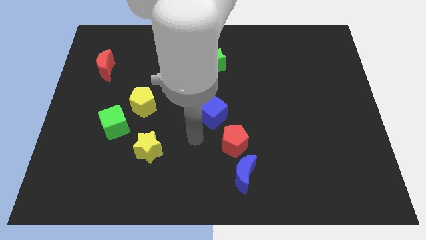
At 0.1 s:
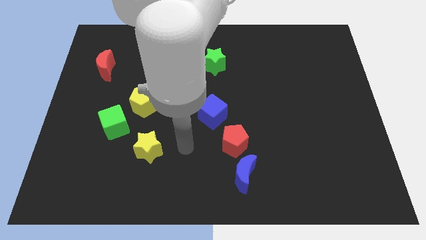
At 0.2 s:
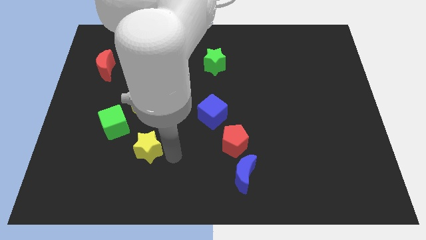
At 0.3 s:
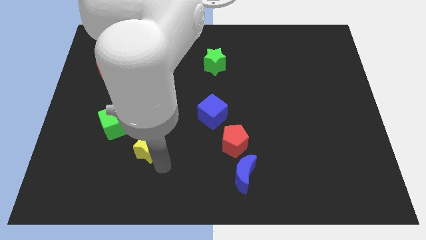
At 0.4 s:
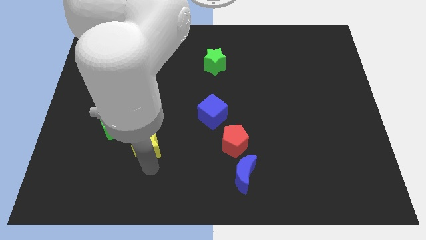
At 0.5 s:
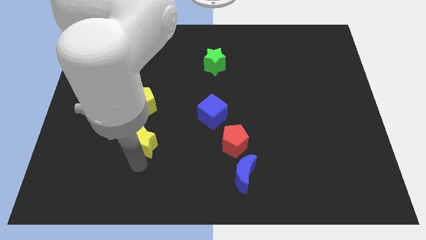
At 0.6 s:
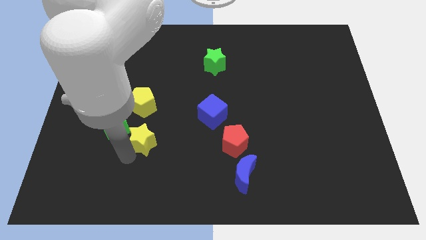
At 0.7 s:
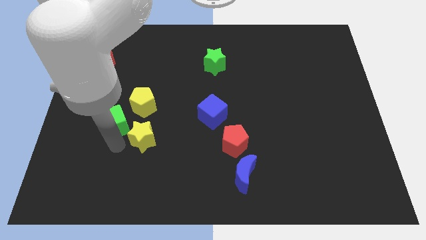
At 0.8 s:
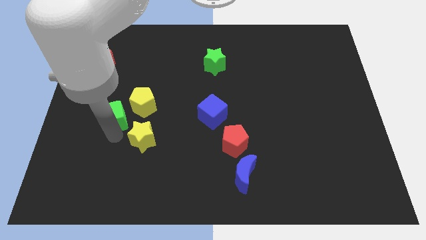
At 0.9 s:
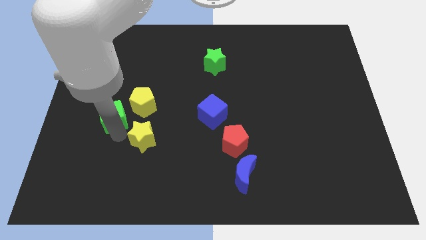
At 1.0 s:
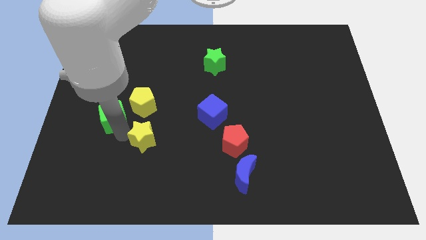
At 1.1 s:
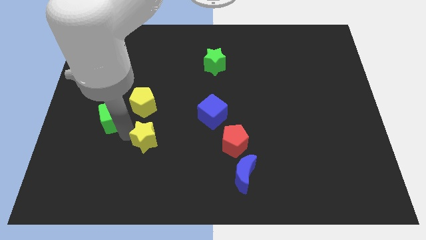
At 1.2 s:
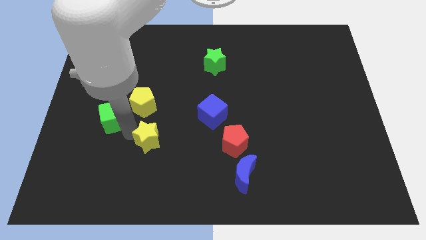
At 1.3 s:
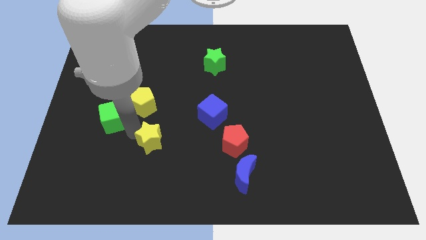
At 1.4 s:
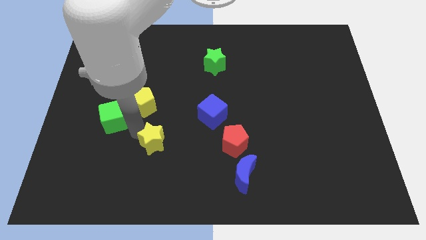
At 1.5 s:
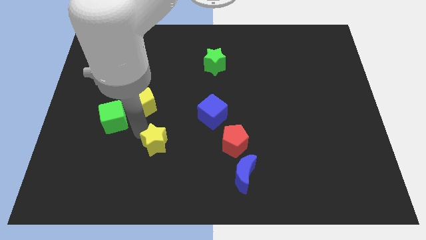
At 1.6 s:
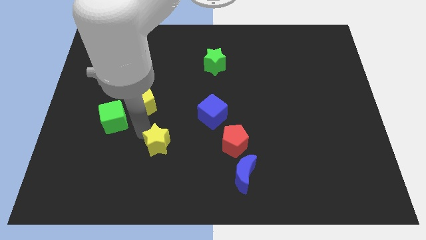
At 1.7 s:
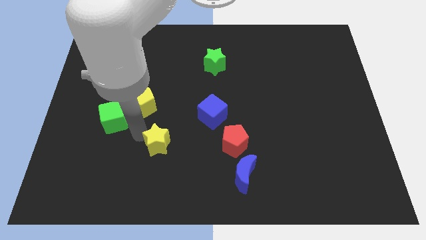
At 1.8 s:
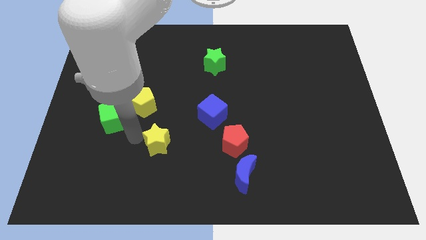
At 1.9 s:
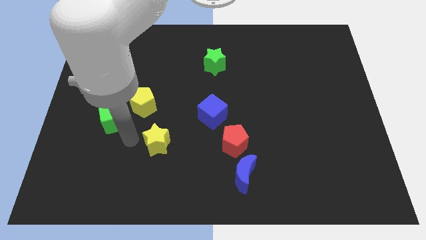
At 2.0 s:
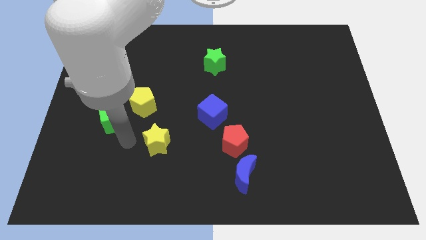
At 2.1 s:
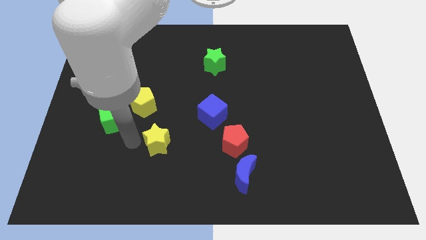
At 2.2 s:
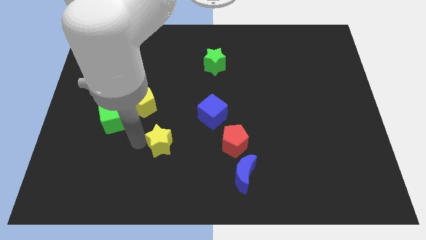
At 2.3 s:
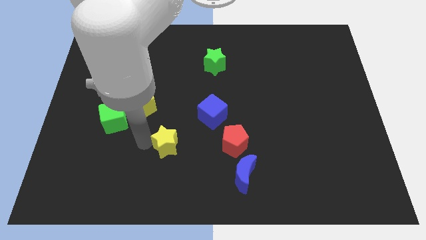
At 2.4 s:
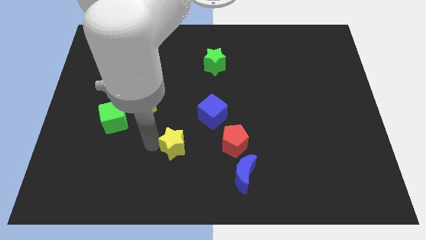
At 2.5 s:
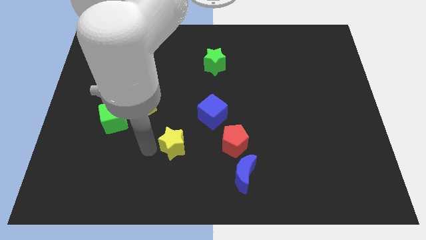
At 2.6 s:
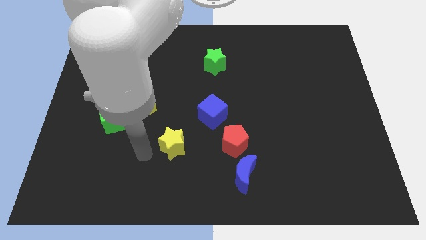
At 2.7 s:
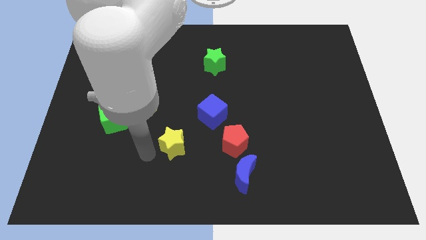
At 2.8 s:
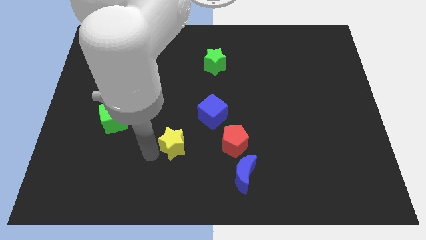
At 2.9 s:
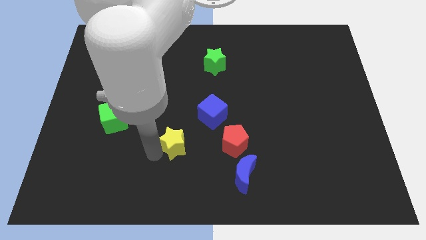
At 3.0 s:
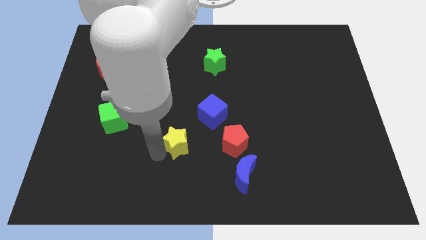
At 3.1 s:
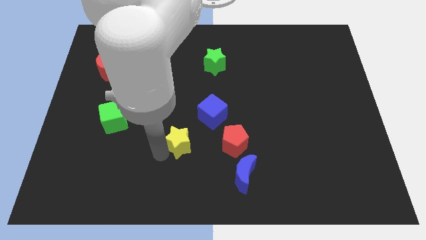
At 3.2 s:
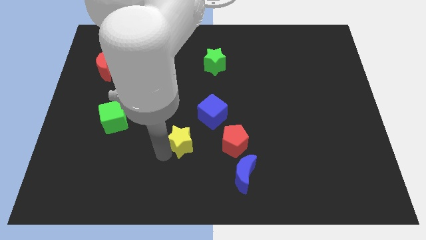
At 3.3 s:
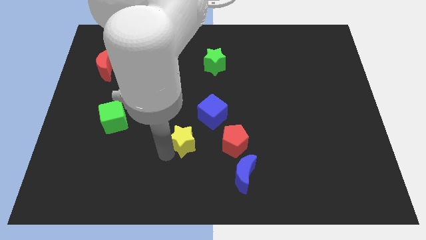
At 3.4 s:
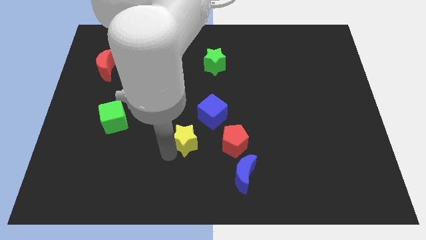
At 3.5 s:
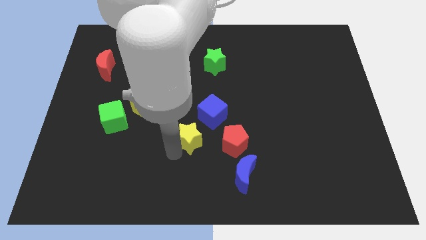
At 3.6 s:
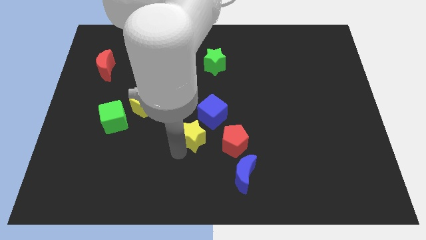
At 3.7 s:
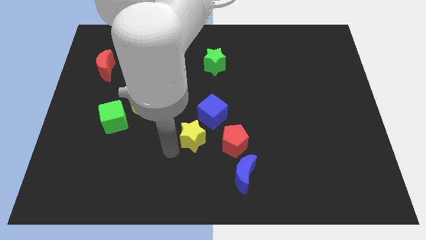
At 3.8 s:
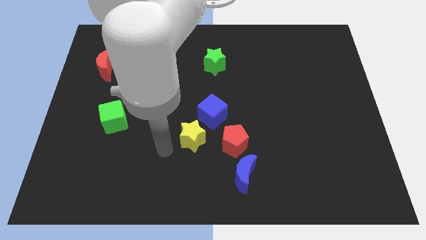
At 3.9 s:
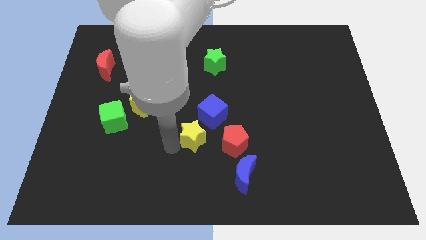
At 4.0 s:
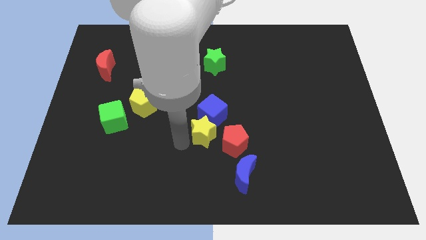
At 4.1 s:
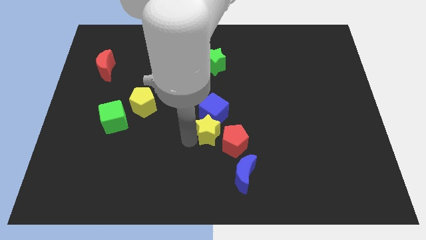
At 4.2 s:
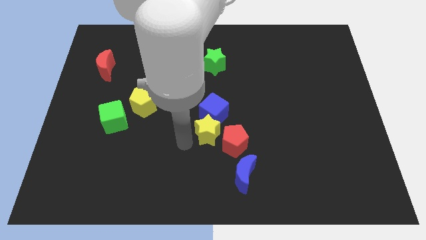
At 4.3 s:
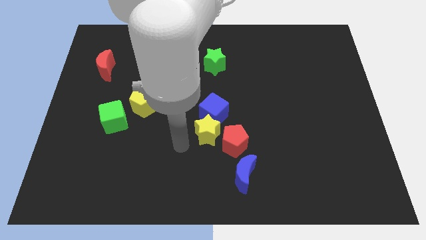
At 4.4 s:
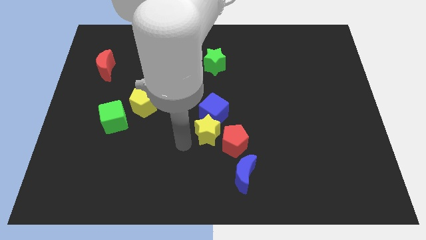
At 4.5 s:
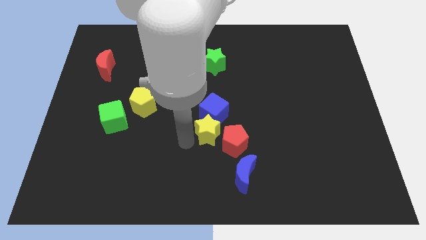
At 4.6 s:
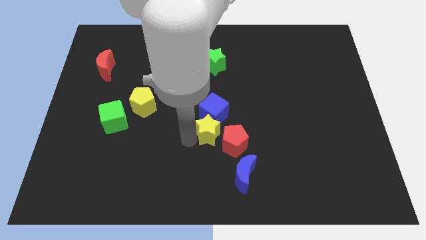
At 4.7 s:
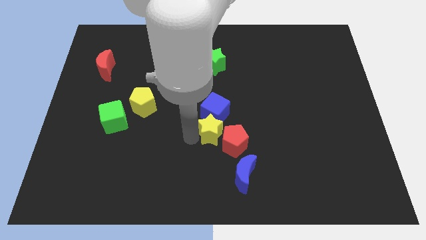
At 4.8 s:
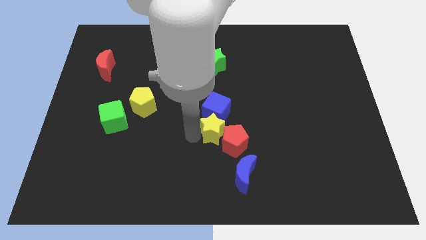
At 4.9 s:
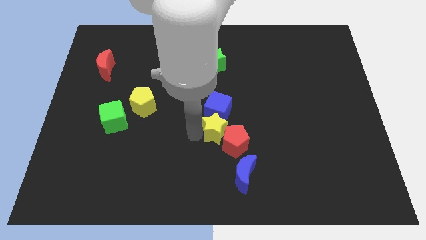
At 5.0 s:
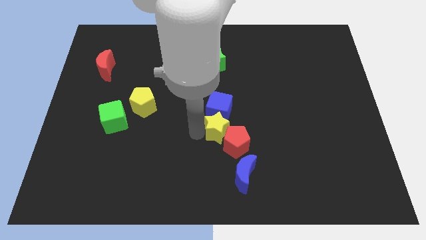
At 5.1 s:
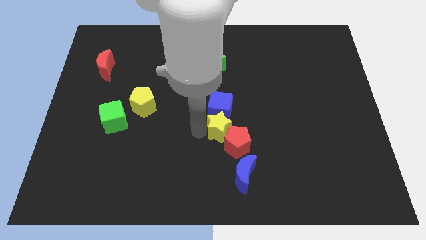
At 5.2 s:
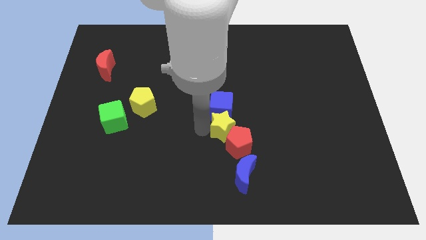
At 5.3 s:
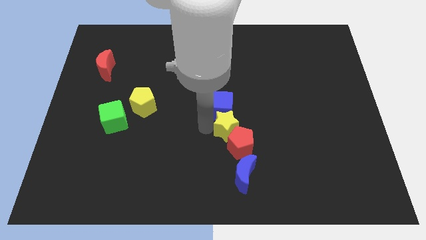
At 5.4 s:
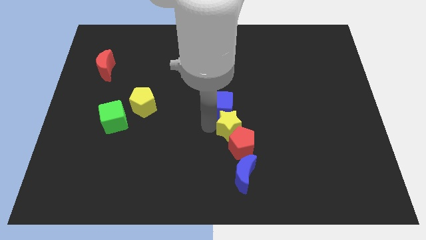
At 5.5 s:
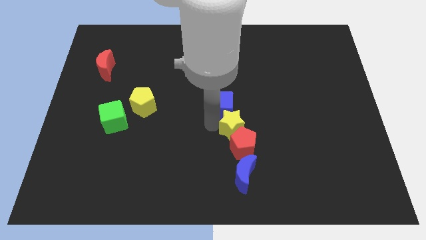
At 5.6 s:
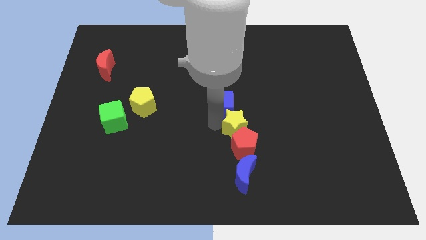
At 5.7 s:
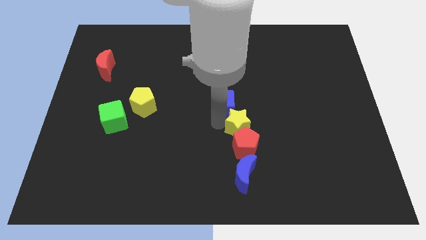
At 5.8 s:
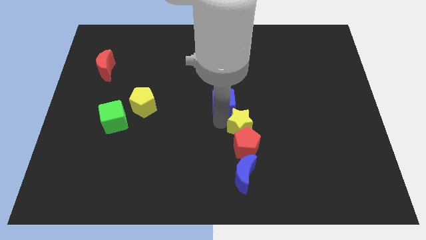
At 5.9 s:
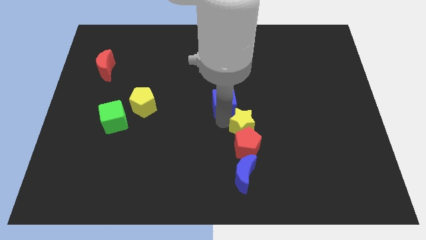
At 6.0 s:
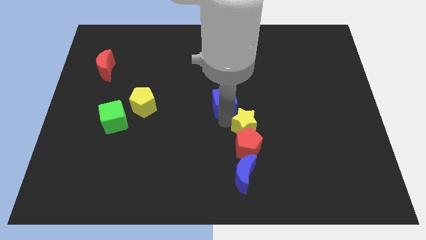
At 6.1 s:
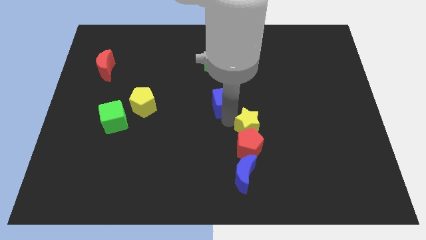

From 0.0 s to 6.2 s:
slide the yellow star to the right

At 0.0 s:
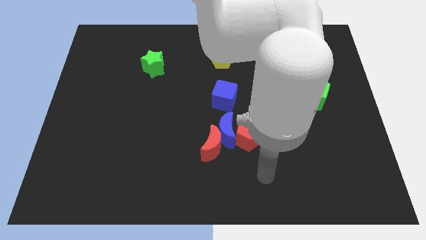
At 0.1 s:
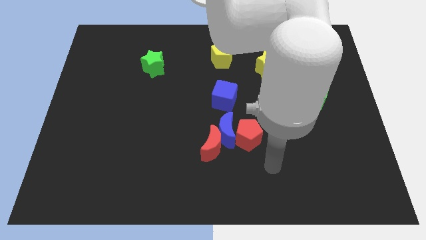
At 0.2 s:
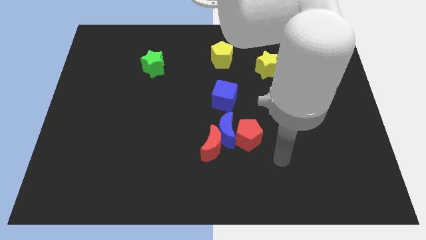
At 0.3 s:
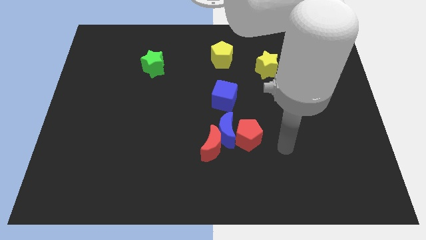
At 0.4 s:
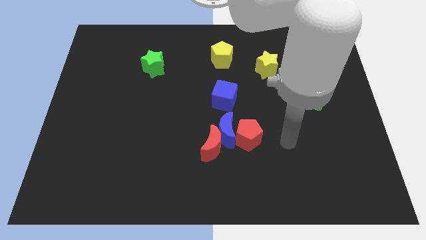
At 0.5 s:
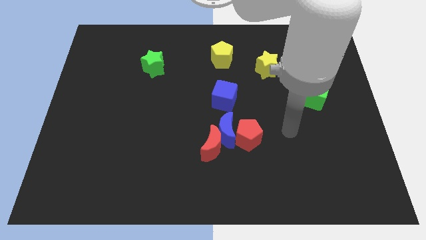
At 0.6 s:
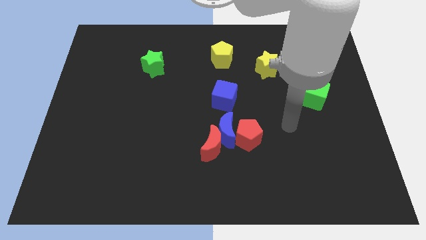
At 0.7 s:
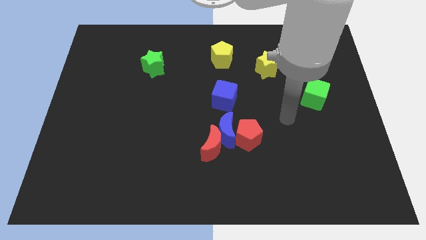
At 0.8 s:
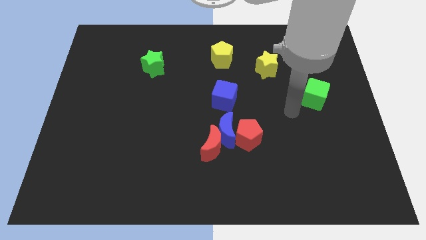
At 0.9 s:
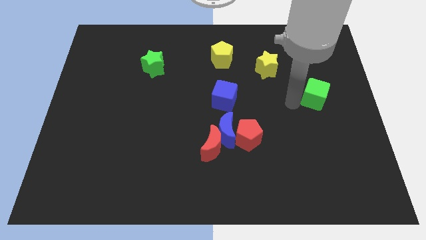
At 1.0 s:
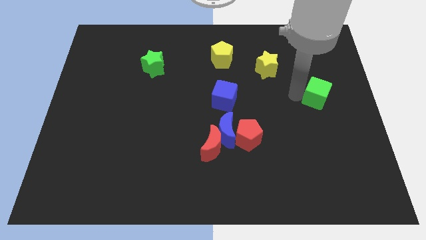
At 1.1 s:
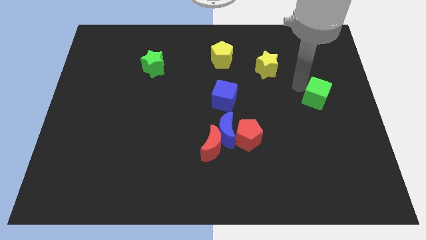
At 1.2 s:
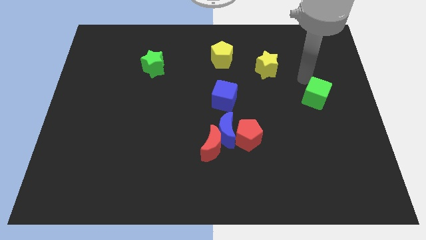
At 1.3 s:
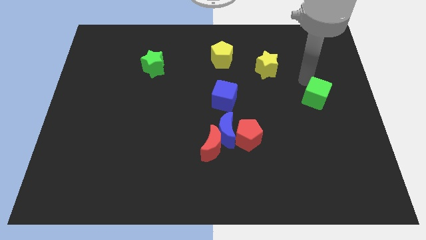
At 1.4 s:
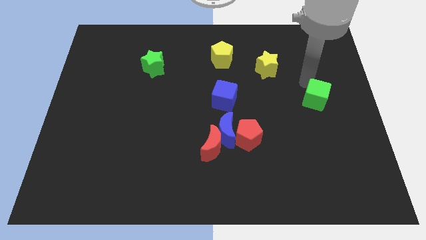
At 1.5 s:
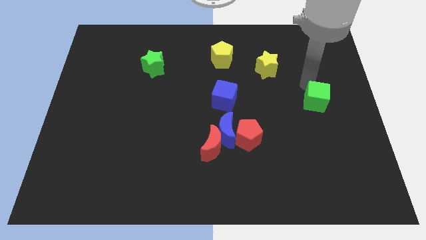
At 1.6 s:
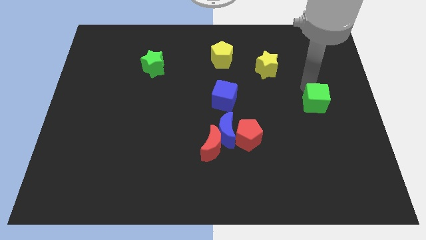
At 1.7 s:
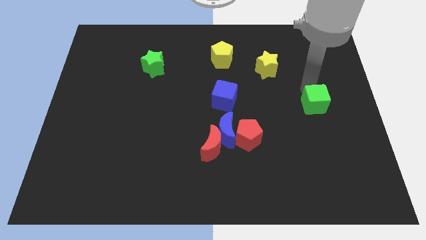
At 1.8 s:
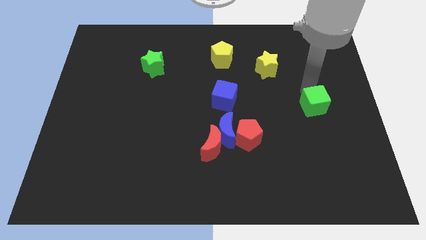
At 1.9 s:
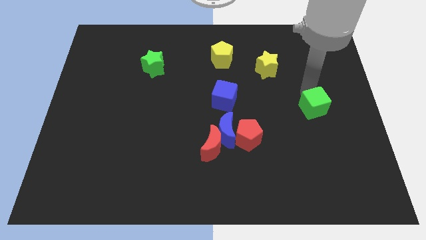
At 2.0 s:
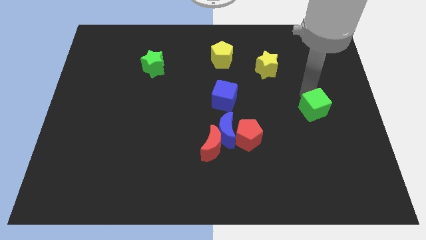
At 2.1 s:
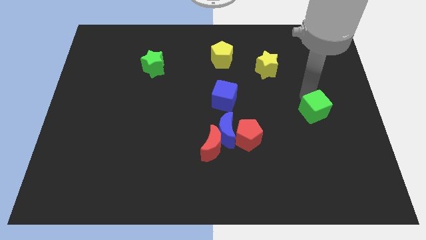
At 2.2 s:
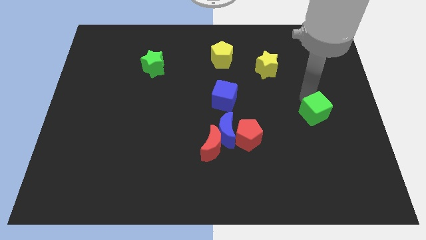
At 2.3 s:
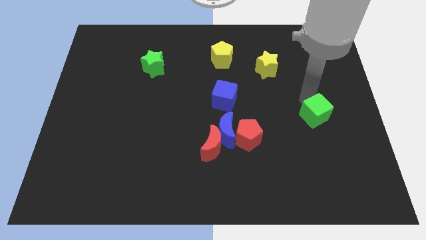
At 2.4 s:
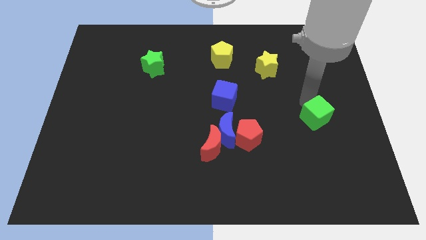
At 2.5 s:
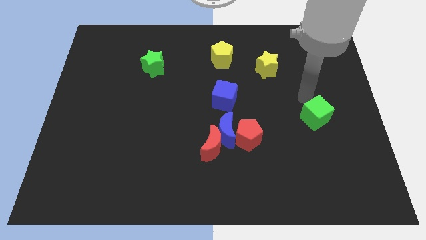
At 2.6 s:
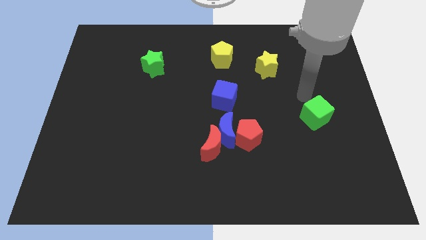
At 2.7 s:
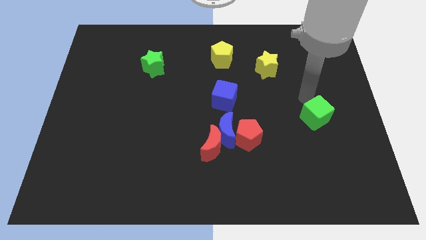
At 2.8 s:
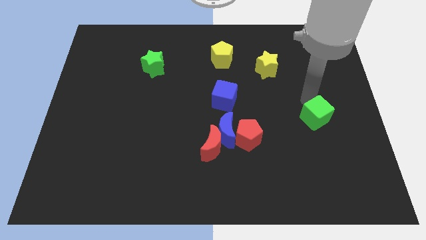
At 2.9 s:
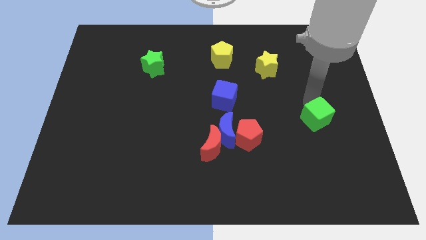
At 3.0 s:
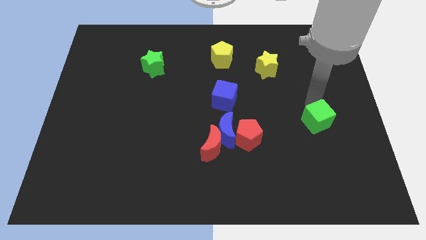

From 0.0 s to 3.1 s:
slightly move the green cube down
